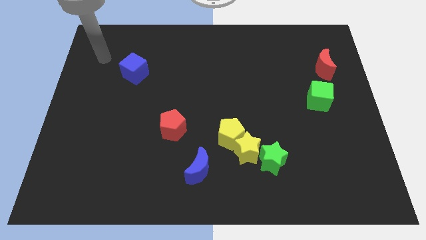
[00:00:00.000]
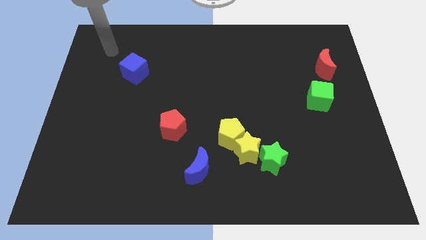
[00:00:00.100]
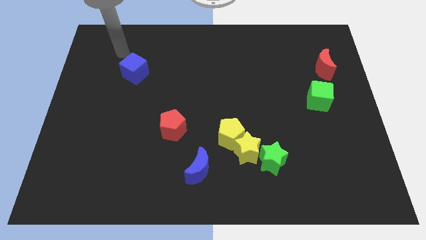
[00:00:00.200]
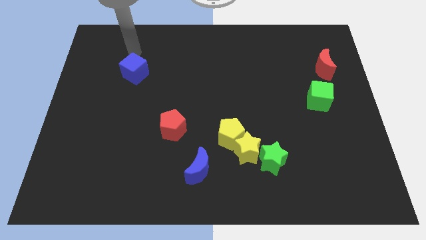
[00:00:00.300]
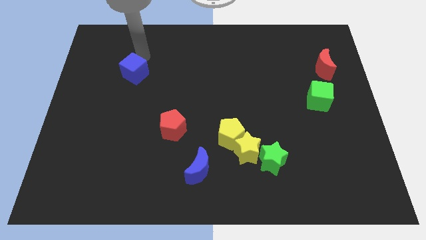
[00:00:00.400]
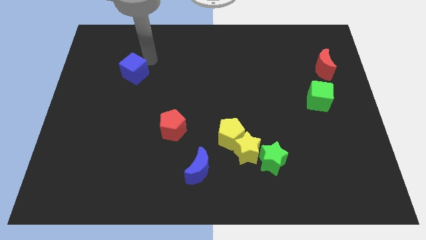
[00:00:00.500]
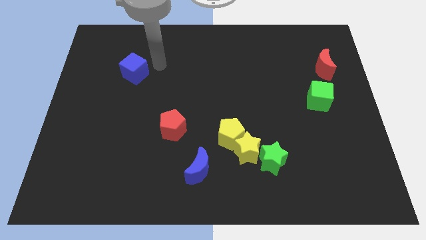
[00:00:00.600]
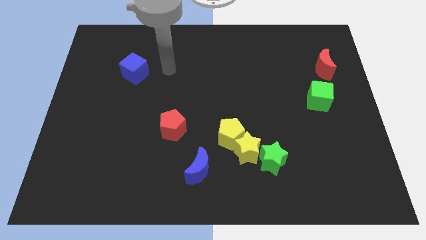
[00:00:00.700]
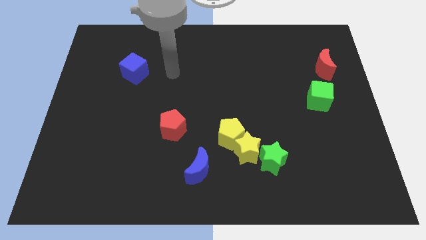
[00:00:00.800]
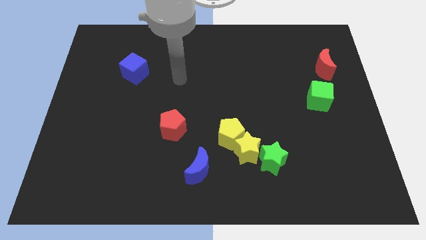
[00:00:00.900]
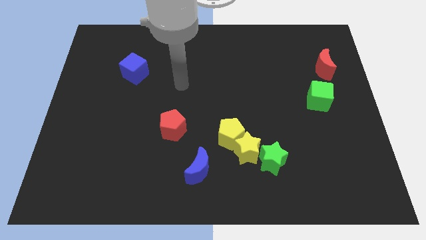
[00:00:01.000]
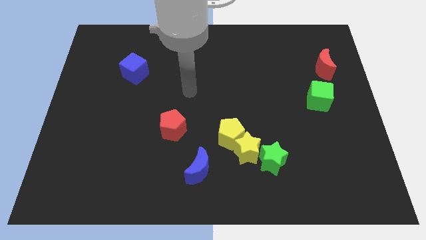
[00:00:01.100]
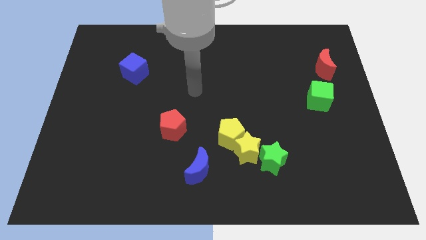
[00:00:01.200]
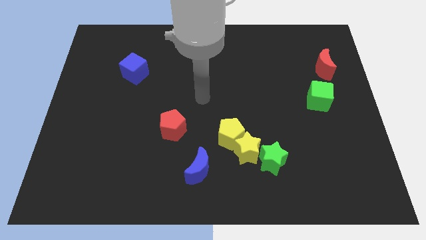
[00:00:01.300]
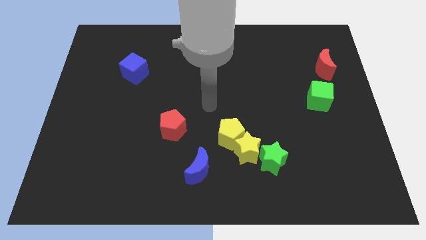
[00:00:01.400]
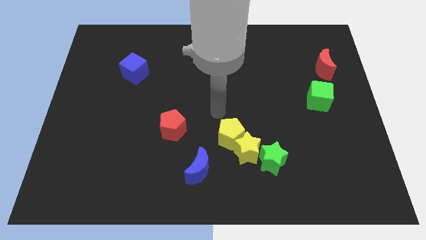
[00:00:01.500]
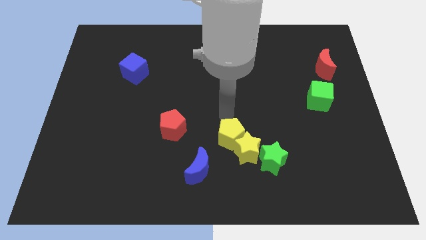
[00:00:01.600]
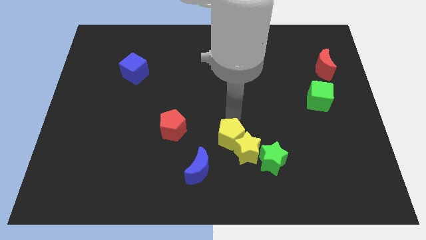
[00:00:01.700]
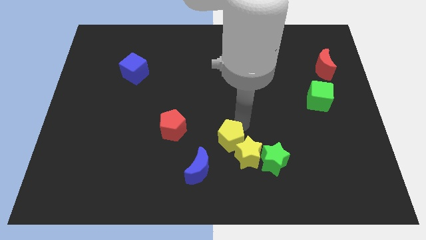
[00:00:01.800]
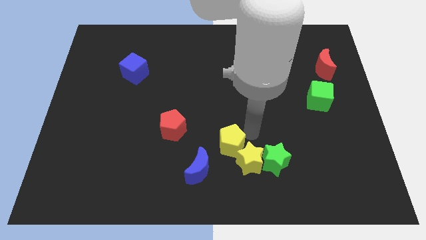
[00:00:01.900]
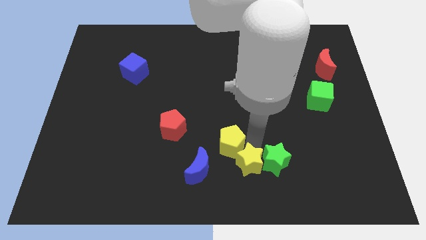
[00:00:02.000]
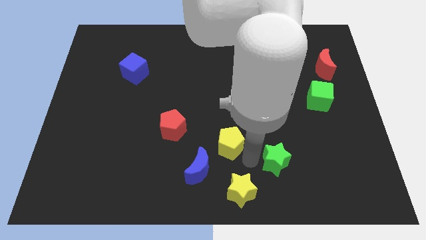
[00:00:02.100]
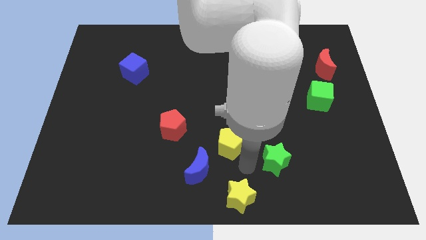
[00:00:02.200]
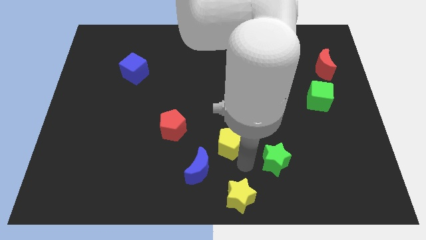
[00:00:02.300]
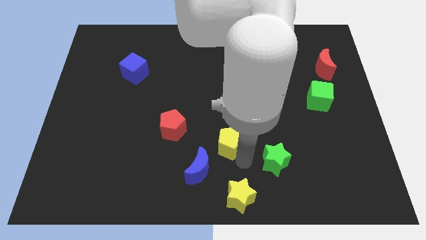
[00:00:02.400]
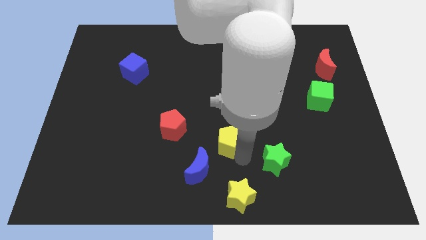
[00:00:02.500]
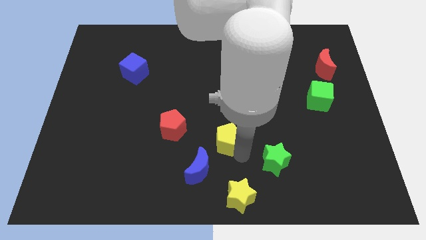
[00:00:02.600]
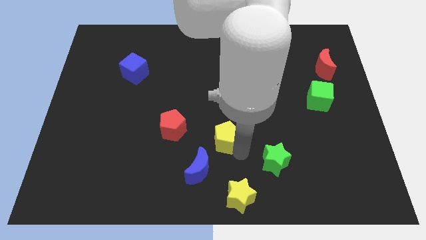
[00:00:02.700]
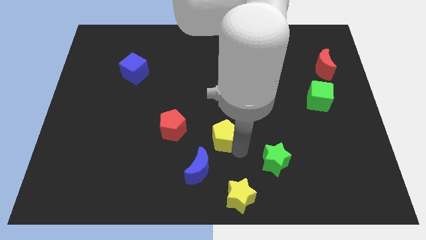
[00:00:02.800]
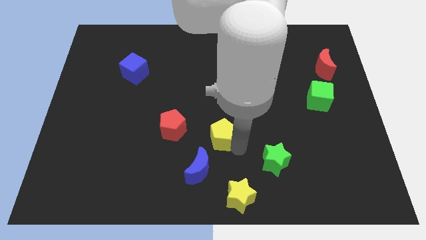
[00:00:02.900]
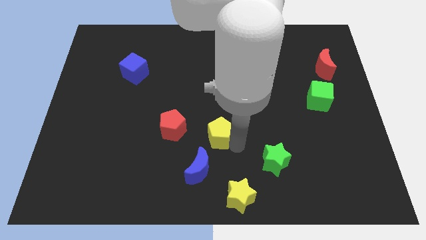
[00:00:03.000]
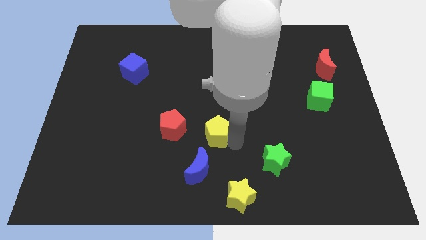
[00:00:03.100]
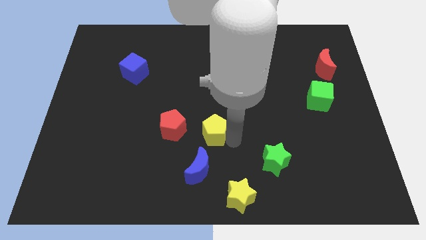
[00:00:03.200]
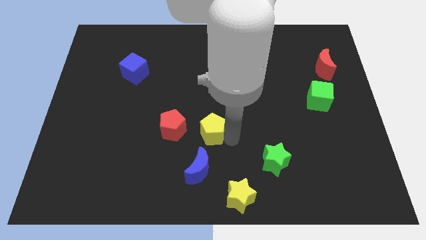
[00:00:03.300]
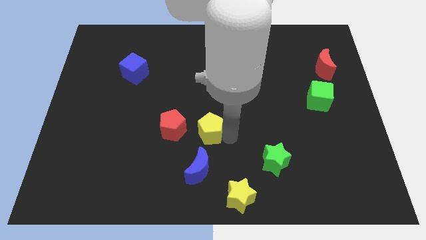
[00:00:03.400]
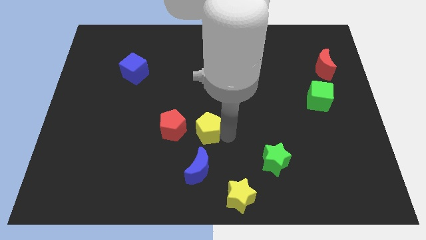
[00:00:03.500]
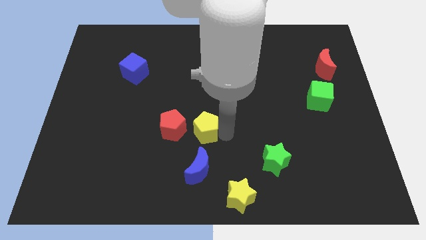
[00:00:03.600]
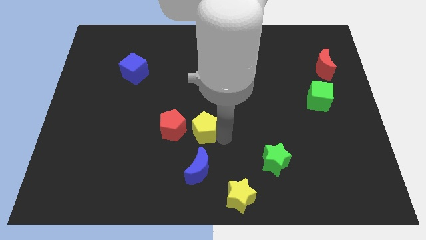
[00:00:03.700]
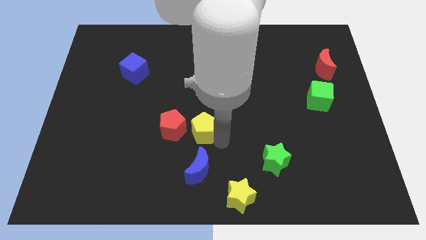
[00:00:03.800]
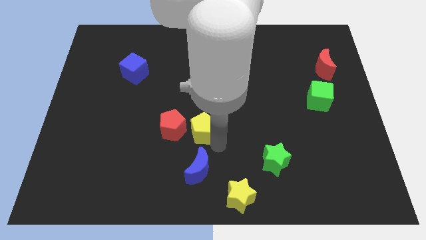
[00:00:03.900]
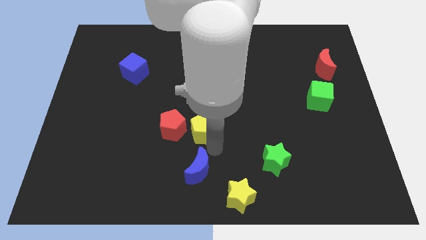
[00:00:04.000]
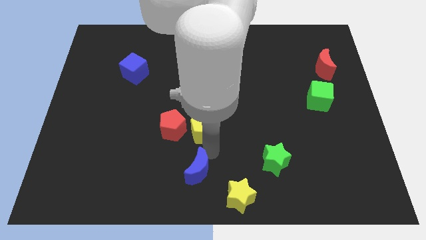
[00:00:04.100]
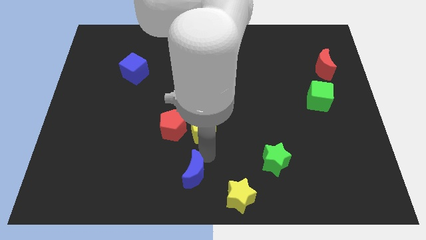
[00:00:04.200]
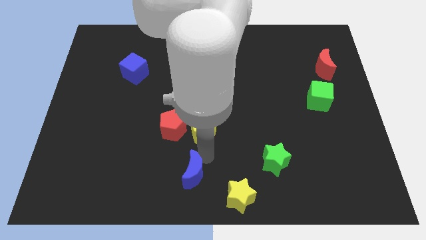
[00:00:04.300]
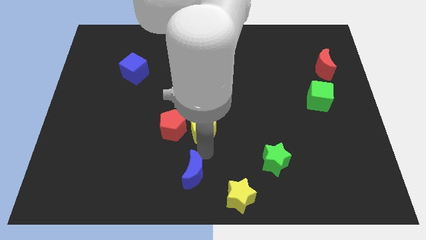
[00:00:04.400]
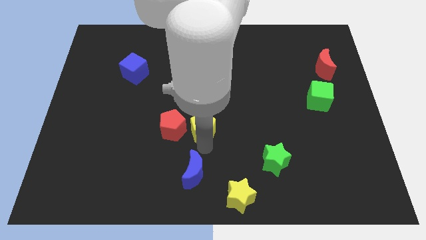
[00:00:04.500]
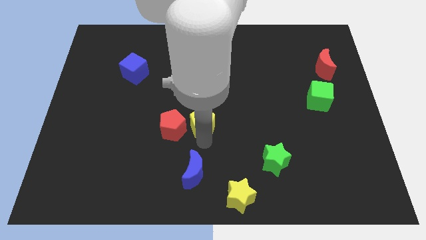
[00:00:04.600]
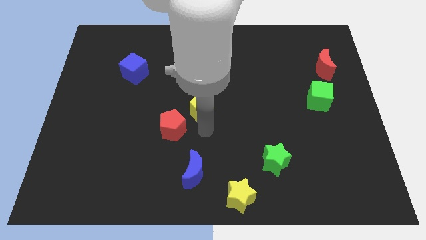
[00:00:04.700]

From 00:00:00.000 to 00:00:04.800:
slide the yellow pentagon a little bit up and to the left

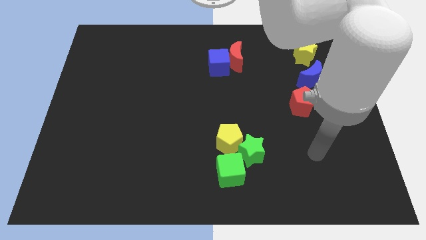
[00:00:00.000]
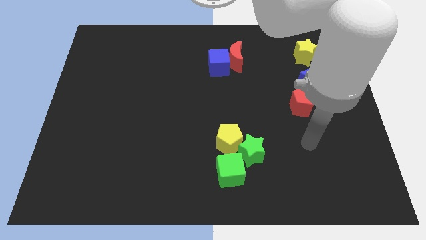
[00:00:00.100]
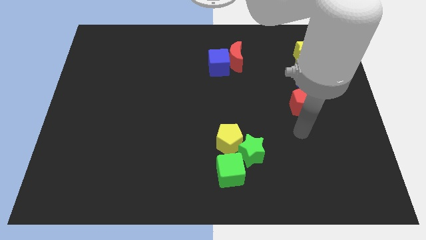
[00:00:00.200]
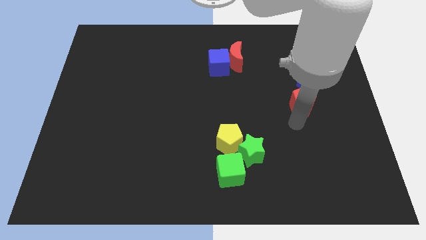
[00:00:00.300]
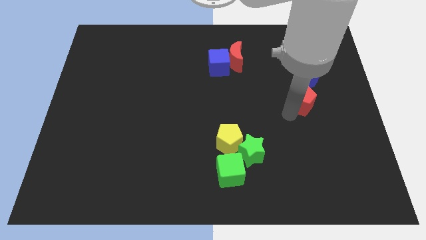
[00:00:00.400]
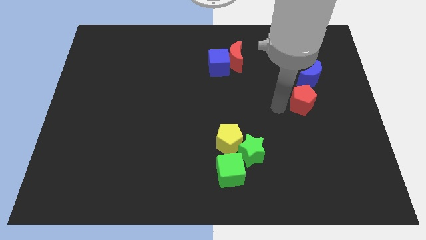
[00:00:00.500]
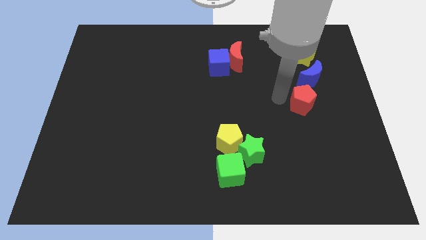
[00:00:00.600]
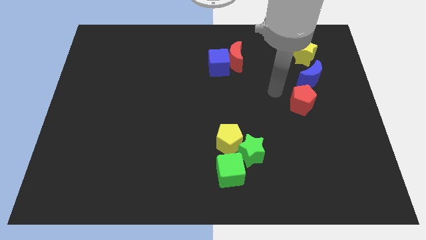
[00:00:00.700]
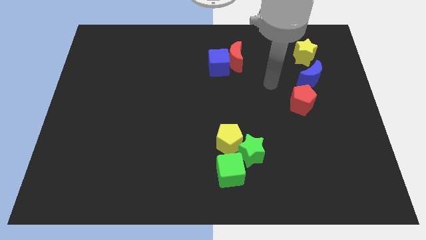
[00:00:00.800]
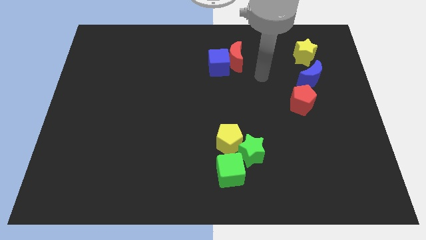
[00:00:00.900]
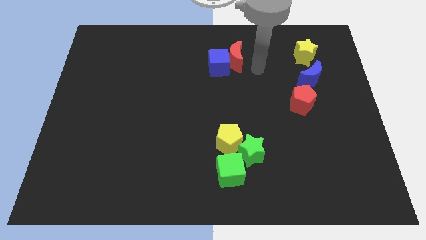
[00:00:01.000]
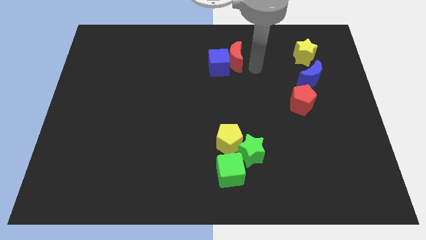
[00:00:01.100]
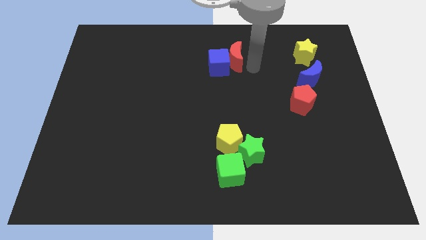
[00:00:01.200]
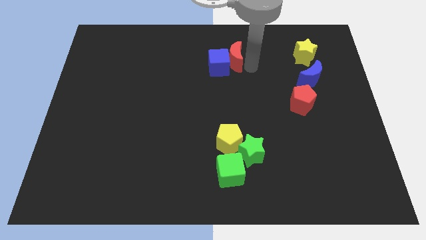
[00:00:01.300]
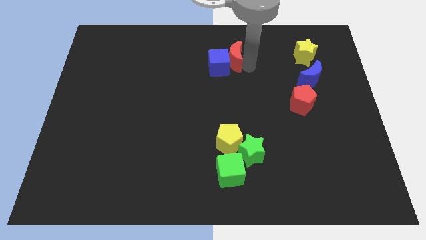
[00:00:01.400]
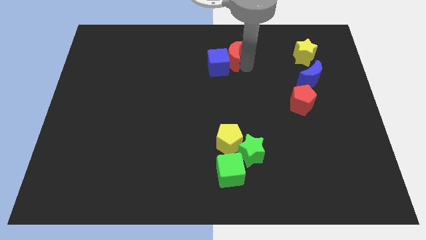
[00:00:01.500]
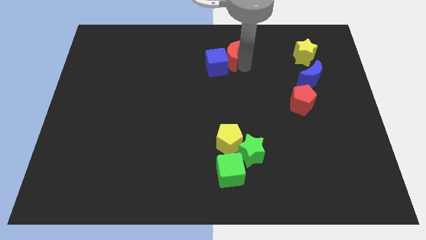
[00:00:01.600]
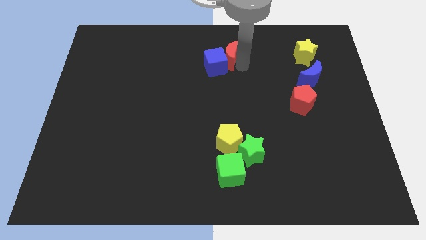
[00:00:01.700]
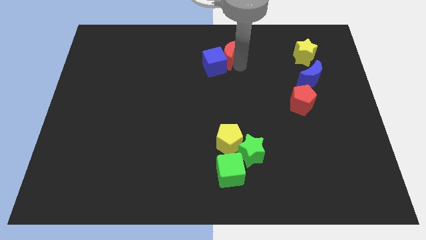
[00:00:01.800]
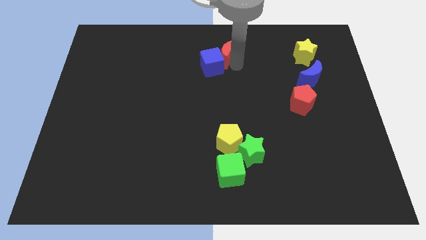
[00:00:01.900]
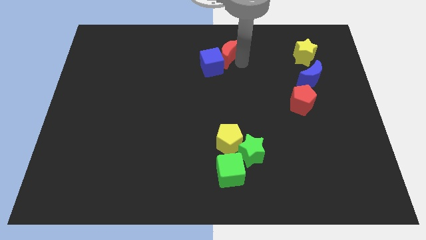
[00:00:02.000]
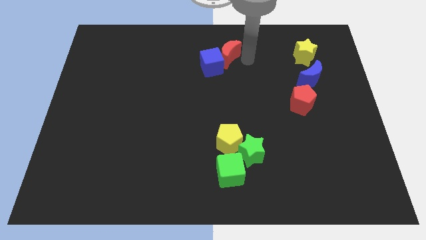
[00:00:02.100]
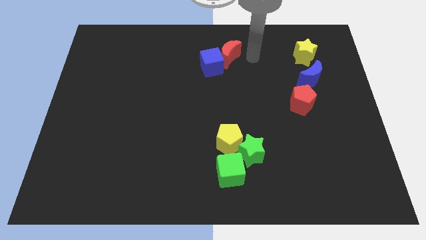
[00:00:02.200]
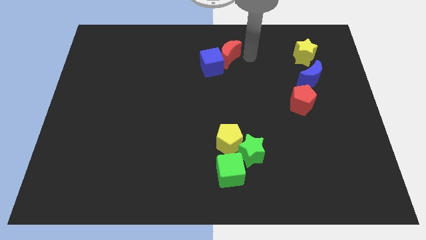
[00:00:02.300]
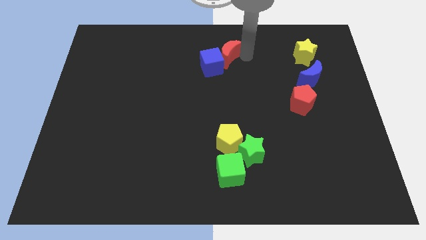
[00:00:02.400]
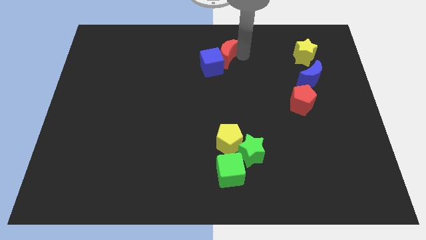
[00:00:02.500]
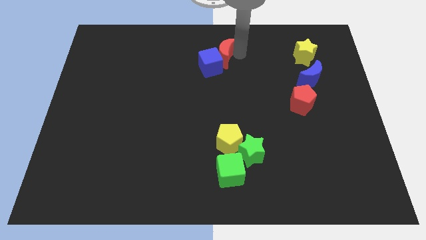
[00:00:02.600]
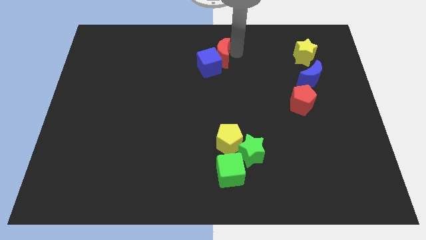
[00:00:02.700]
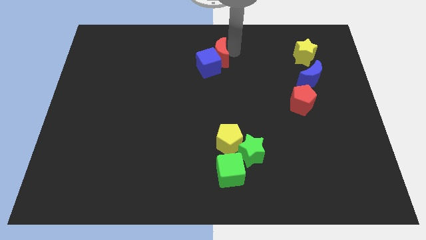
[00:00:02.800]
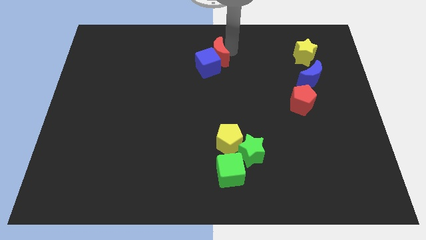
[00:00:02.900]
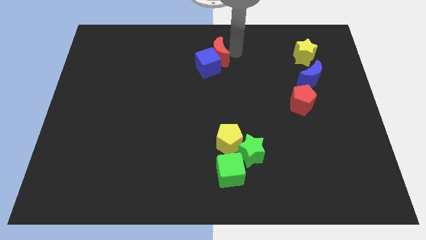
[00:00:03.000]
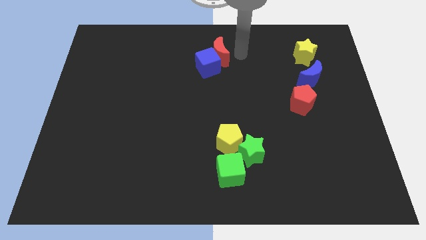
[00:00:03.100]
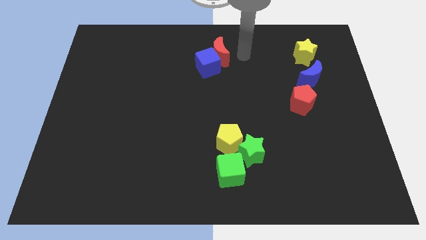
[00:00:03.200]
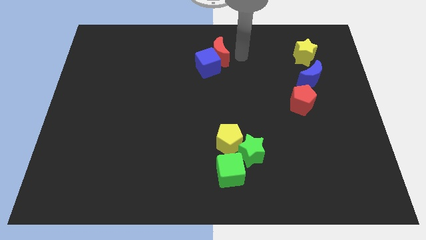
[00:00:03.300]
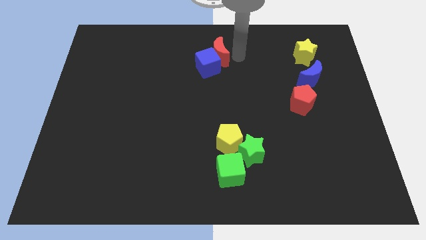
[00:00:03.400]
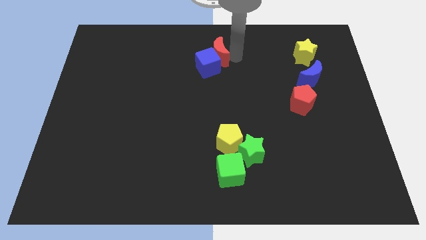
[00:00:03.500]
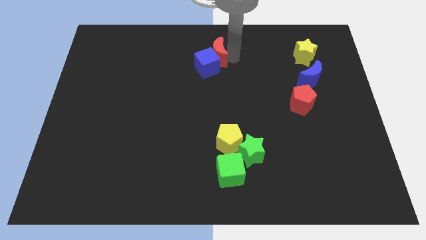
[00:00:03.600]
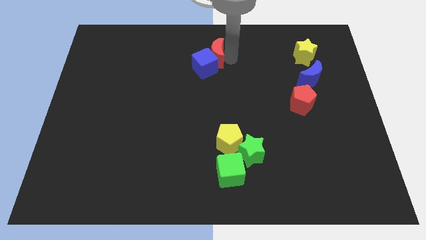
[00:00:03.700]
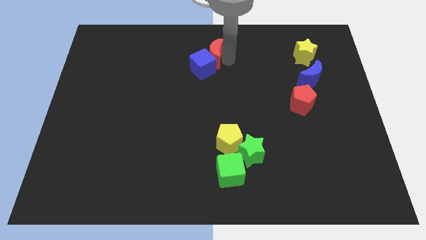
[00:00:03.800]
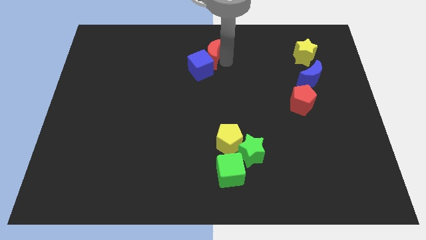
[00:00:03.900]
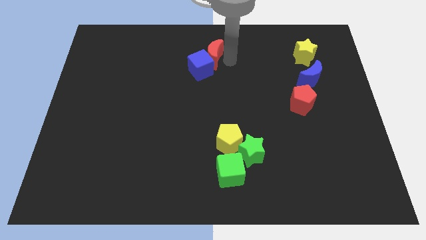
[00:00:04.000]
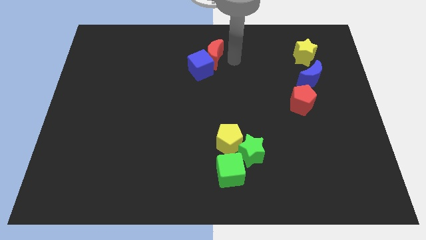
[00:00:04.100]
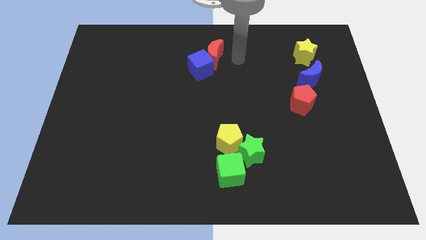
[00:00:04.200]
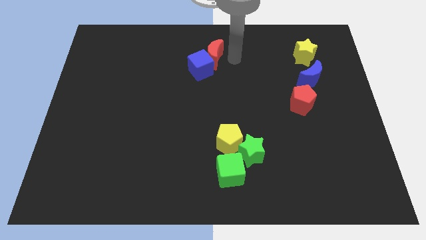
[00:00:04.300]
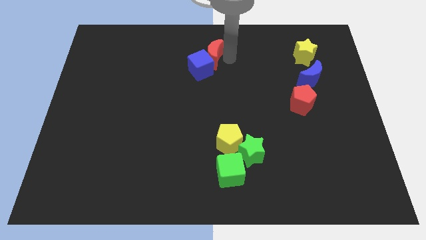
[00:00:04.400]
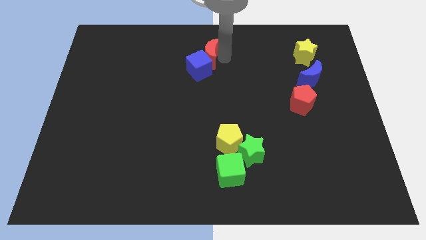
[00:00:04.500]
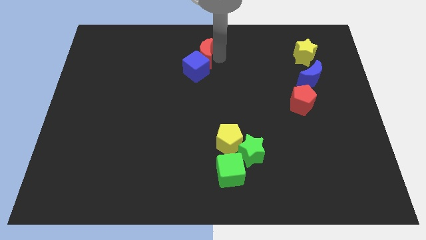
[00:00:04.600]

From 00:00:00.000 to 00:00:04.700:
push the red moon a little to the left
